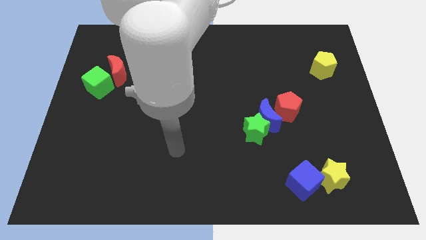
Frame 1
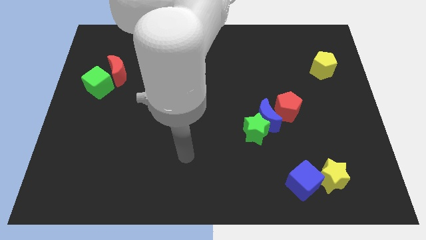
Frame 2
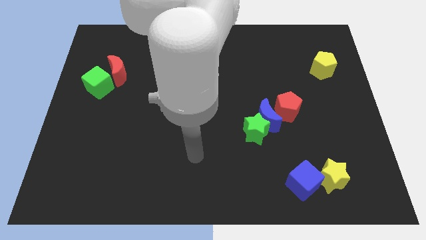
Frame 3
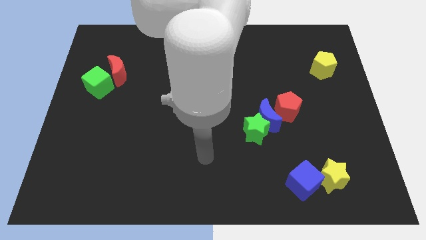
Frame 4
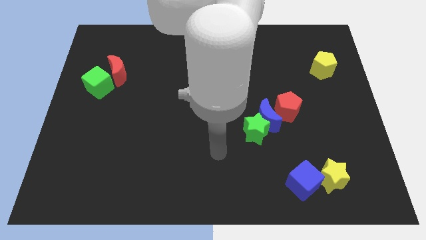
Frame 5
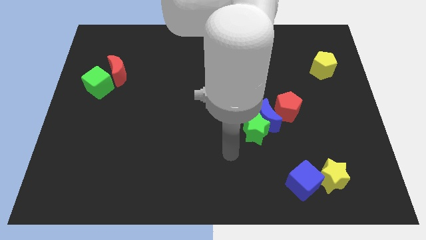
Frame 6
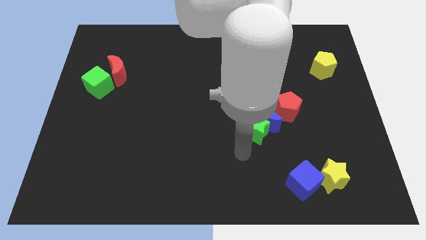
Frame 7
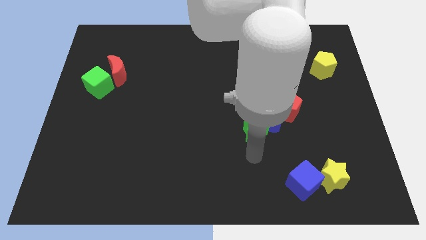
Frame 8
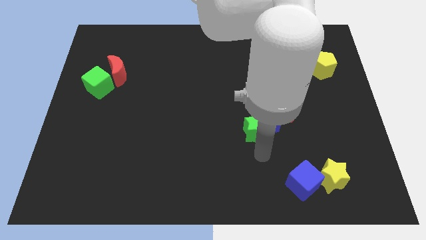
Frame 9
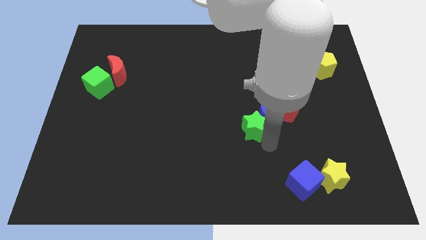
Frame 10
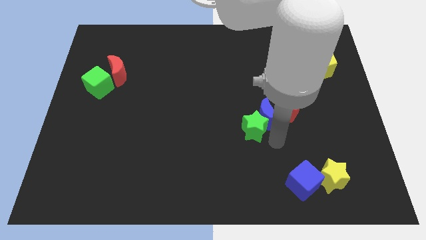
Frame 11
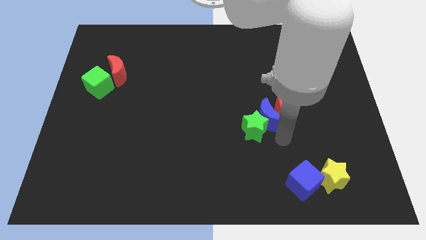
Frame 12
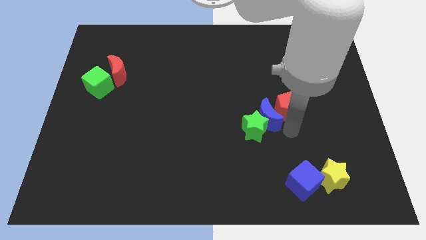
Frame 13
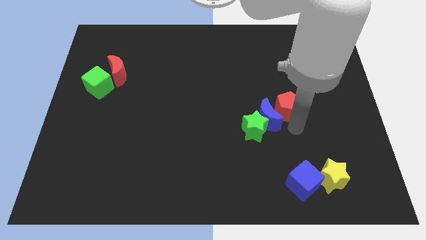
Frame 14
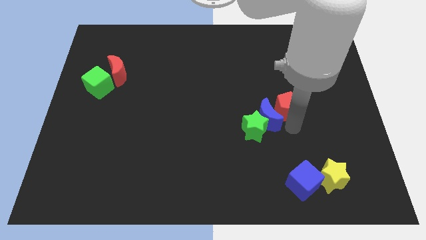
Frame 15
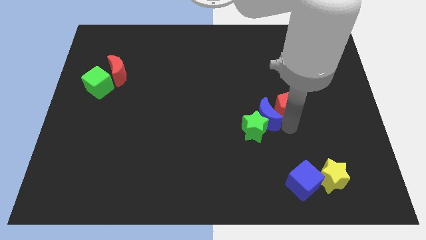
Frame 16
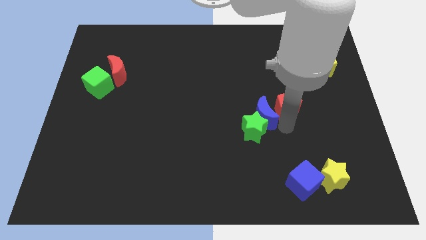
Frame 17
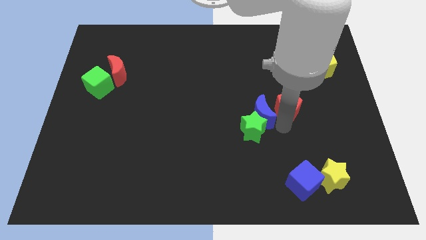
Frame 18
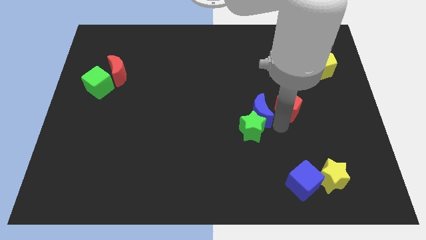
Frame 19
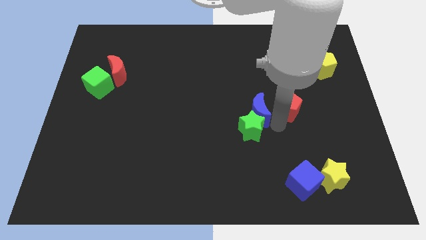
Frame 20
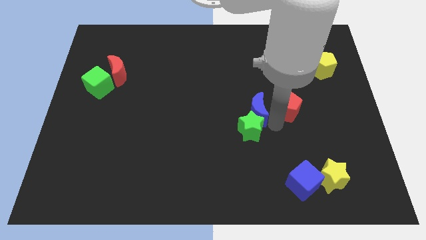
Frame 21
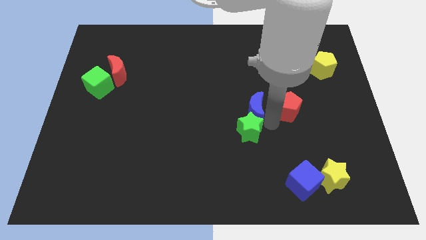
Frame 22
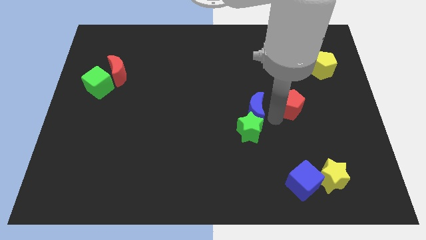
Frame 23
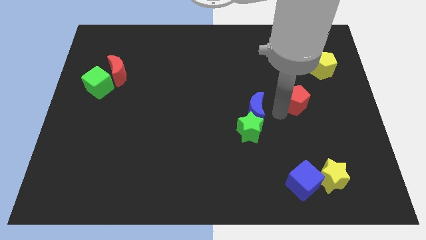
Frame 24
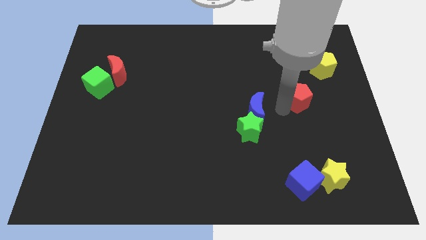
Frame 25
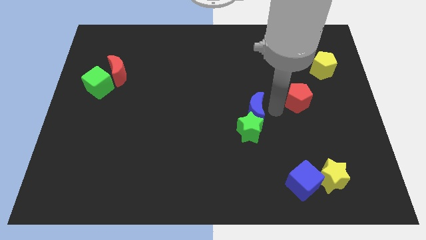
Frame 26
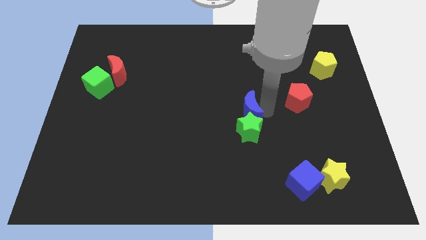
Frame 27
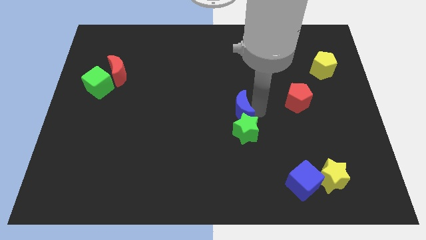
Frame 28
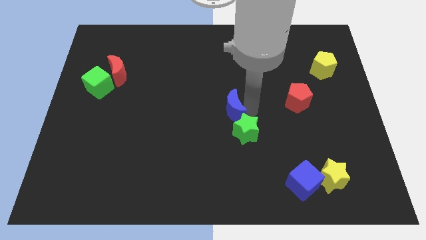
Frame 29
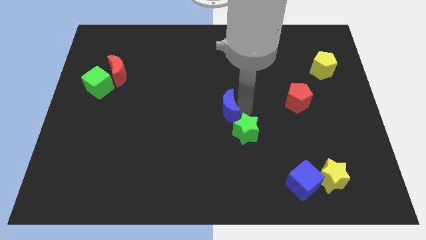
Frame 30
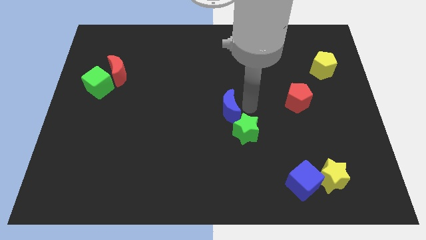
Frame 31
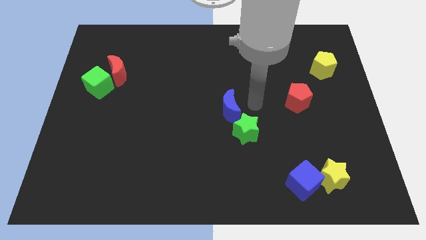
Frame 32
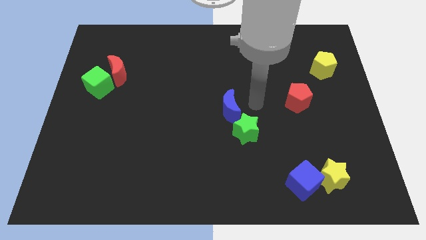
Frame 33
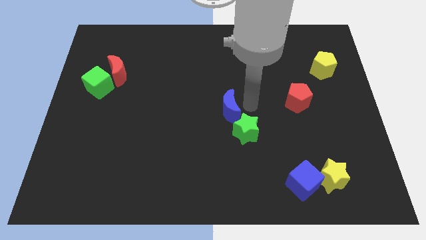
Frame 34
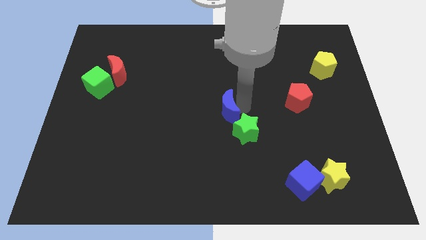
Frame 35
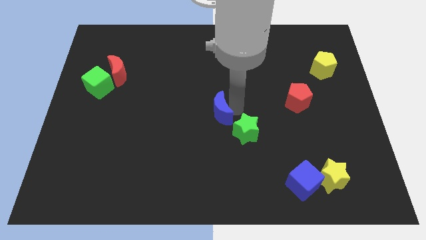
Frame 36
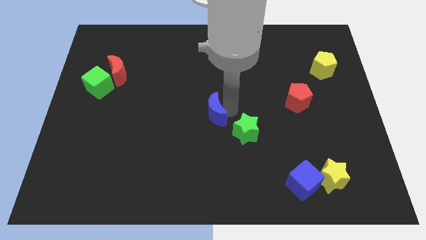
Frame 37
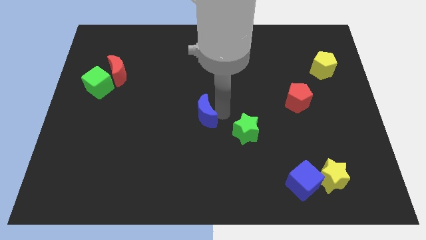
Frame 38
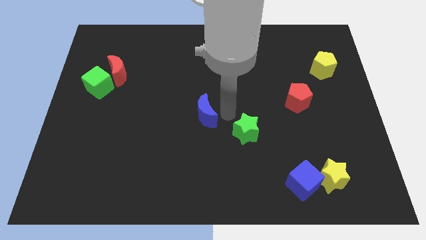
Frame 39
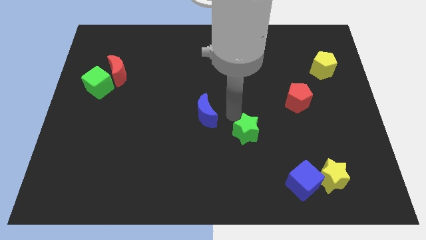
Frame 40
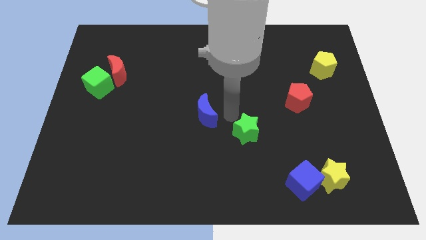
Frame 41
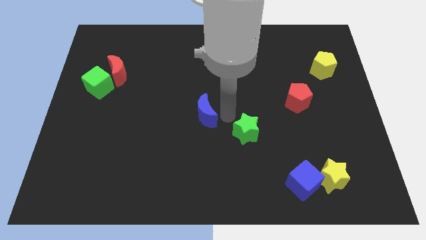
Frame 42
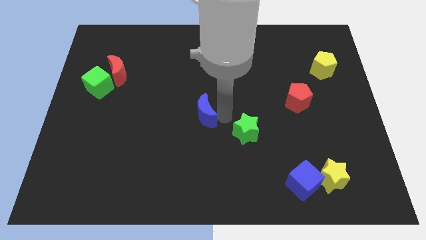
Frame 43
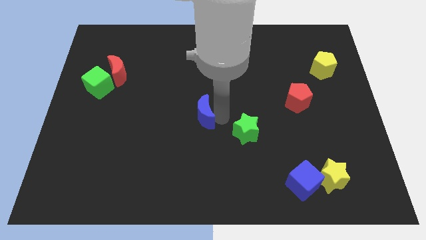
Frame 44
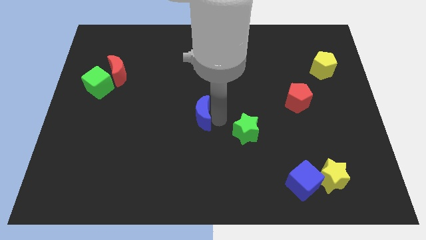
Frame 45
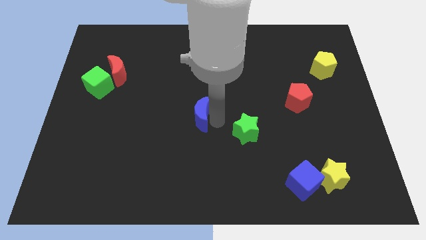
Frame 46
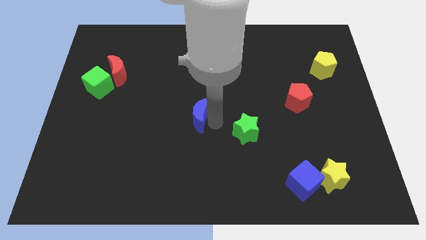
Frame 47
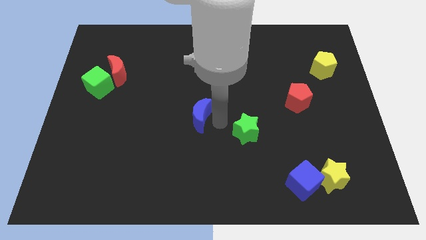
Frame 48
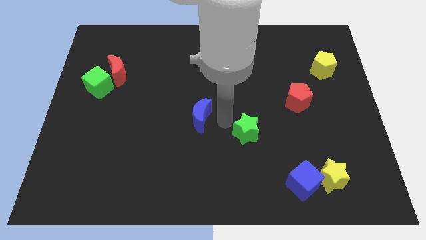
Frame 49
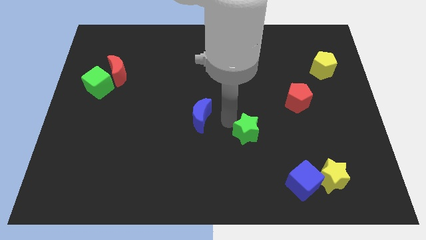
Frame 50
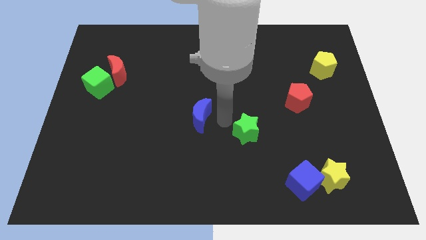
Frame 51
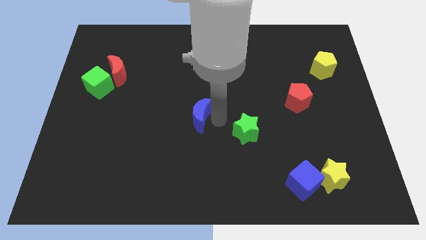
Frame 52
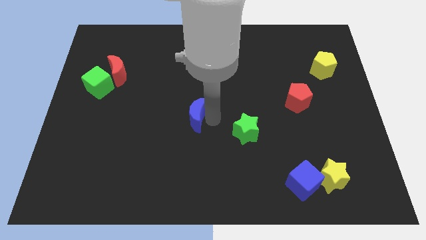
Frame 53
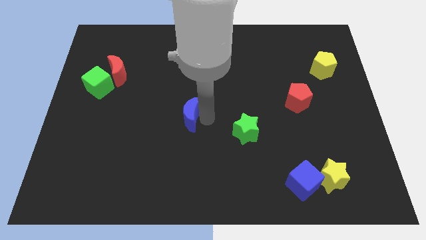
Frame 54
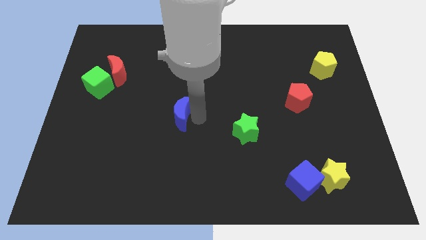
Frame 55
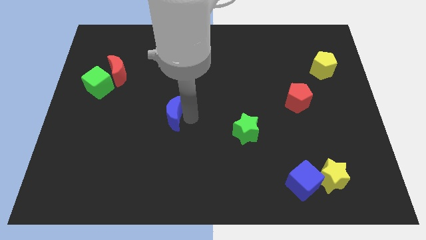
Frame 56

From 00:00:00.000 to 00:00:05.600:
push the blue moon to the left

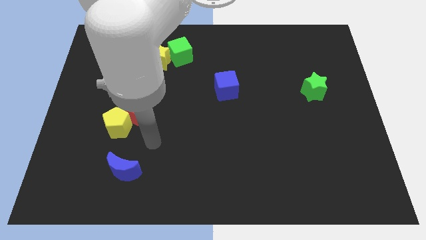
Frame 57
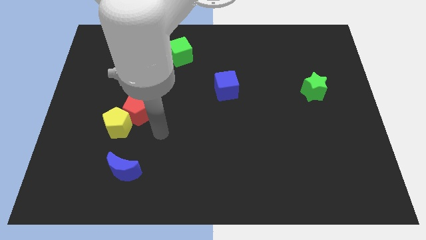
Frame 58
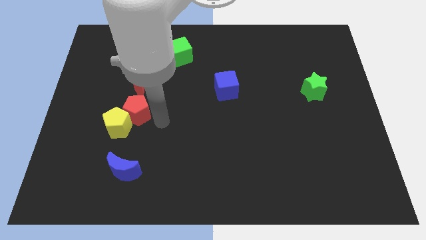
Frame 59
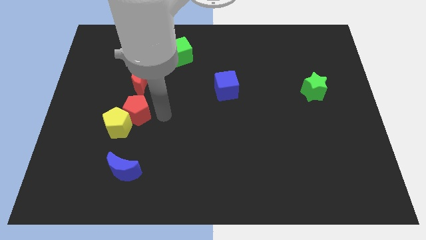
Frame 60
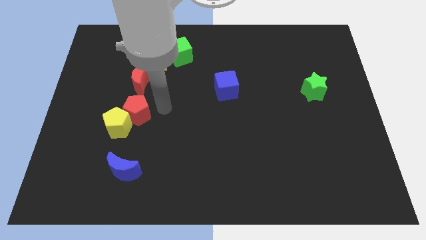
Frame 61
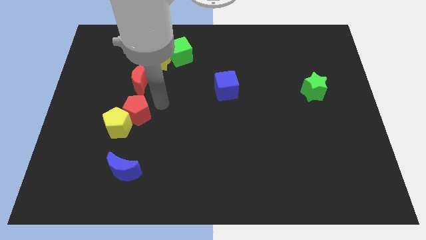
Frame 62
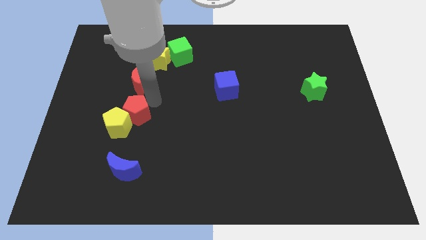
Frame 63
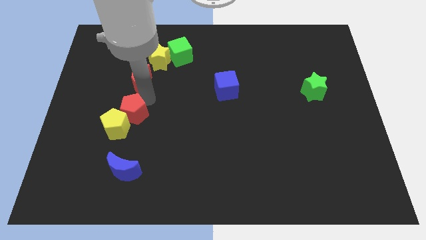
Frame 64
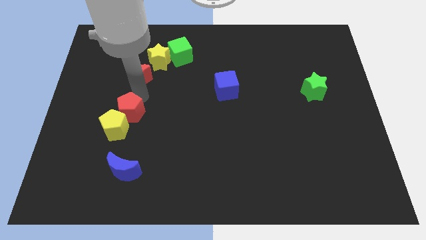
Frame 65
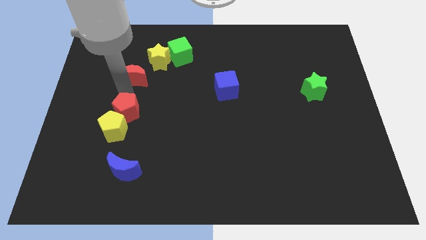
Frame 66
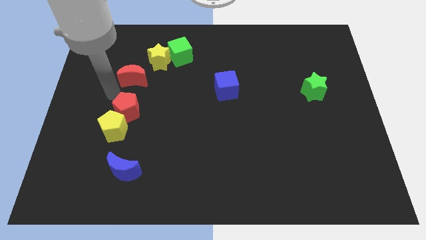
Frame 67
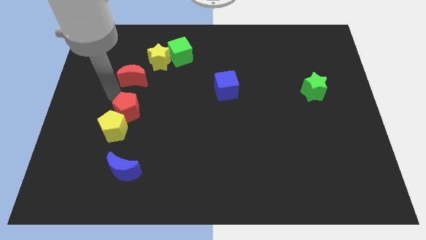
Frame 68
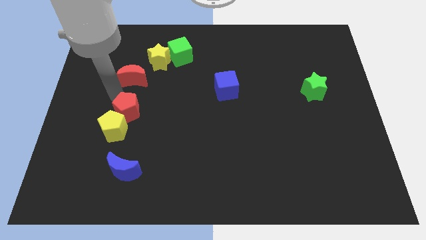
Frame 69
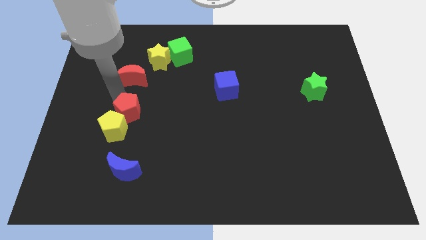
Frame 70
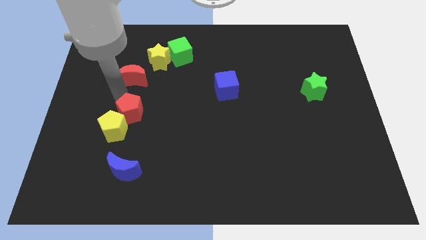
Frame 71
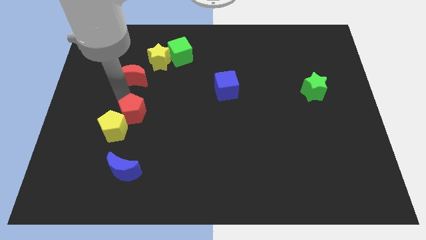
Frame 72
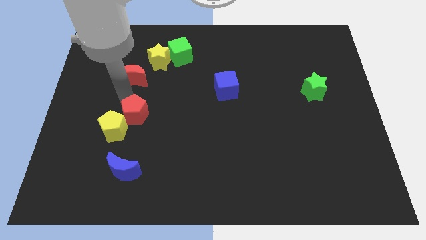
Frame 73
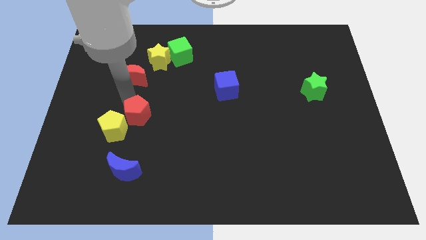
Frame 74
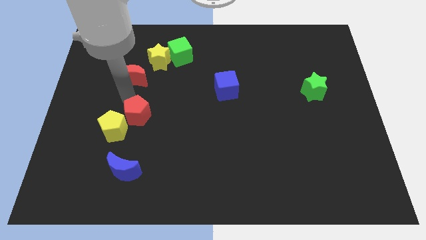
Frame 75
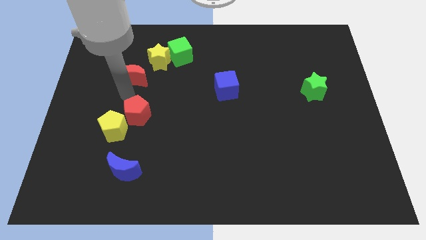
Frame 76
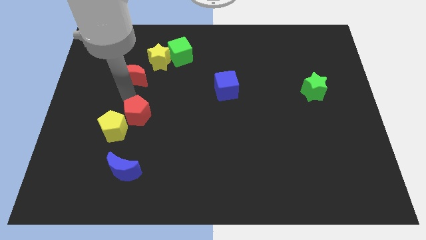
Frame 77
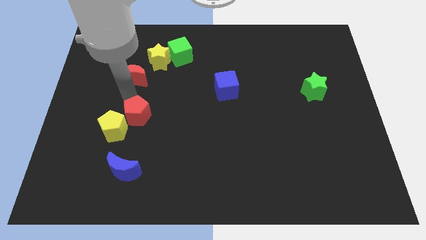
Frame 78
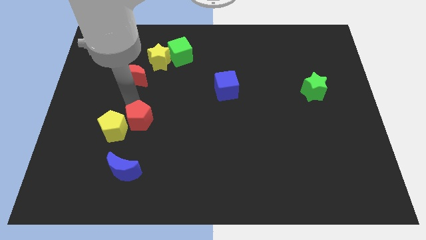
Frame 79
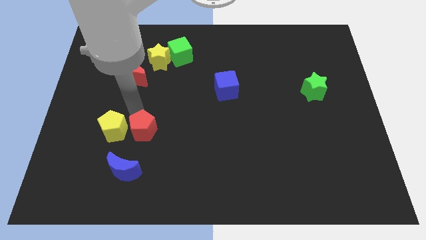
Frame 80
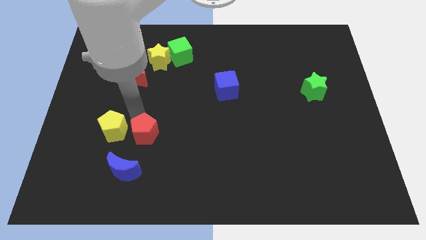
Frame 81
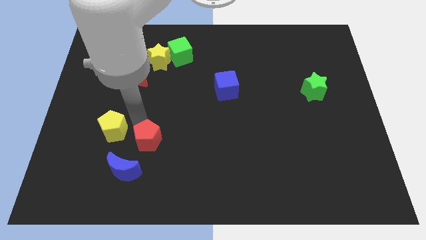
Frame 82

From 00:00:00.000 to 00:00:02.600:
slightly slide the red pentagon diagonally downwards and to the right
